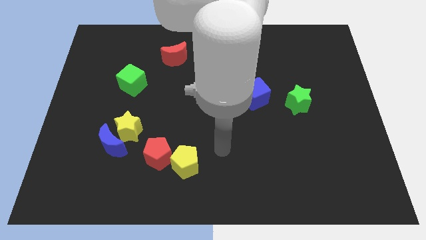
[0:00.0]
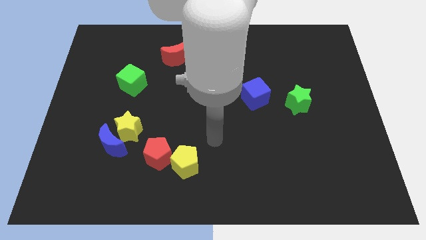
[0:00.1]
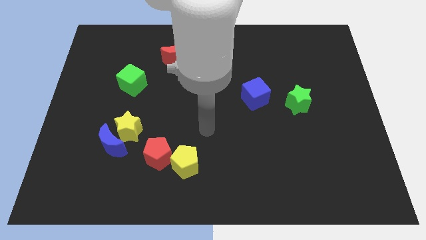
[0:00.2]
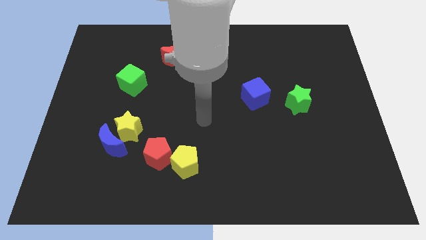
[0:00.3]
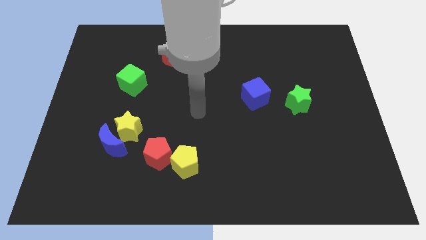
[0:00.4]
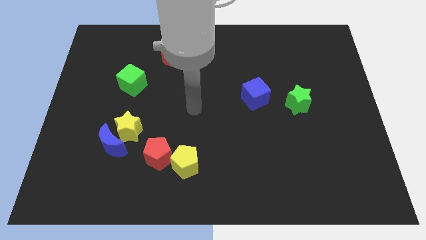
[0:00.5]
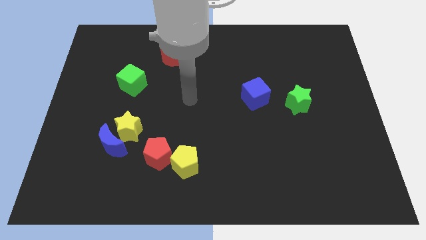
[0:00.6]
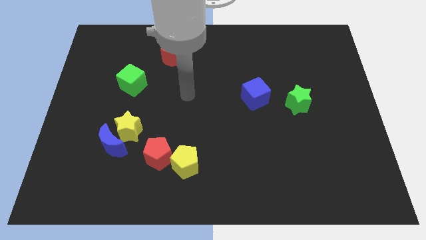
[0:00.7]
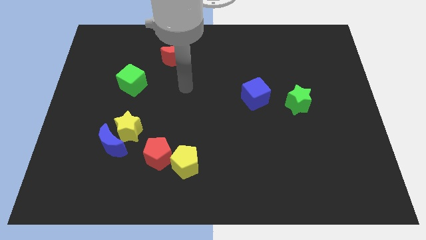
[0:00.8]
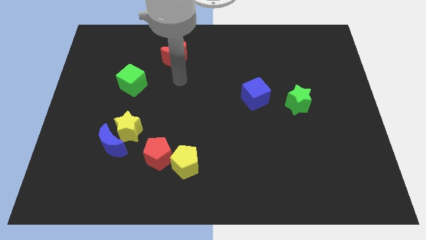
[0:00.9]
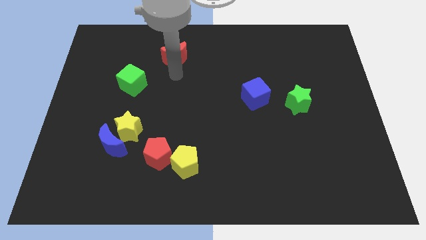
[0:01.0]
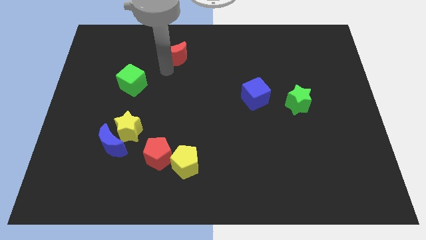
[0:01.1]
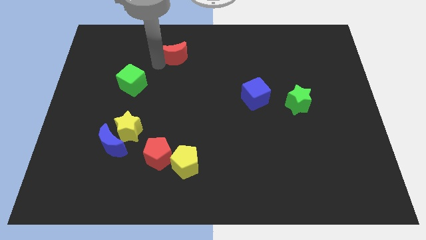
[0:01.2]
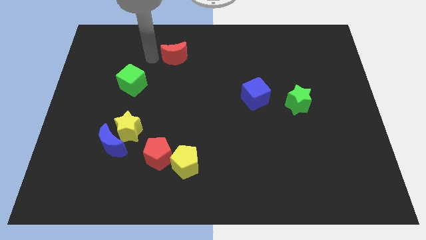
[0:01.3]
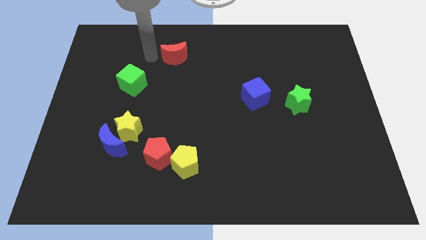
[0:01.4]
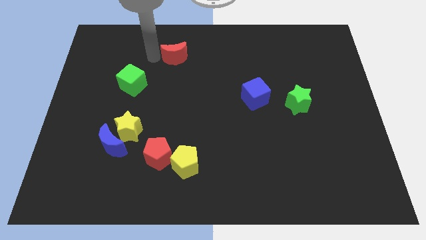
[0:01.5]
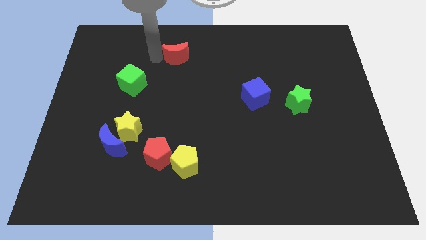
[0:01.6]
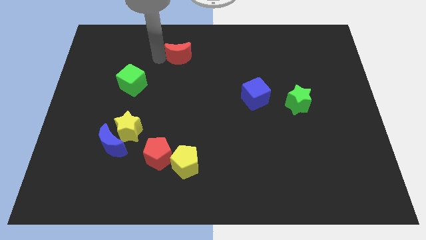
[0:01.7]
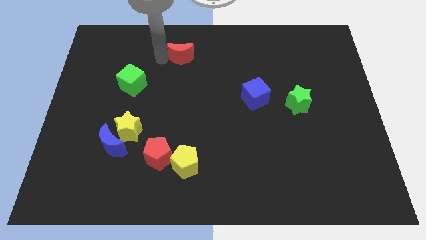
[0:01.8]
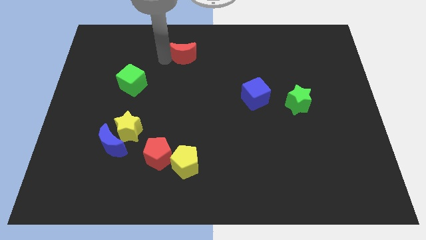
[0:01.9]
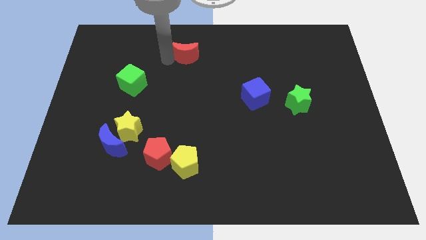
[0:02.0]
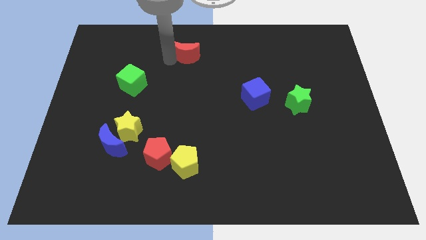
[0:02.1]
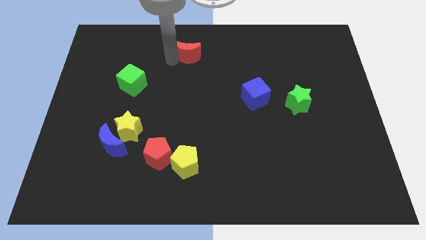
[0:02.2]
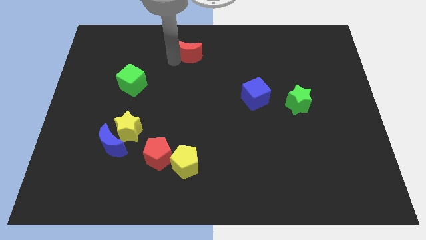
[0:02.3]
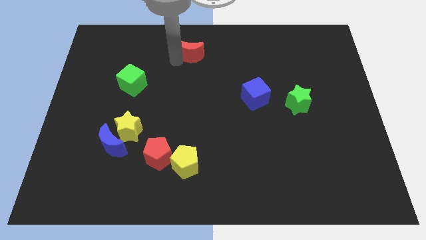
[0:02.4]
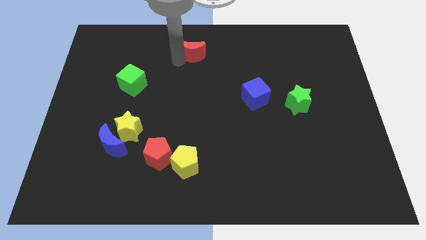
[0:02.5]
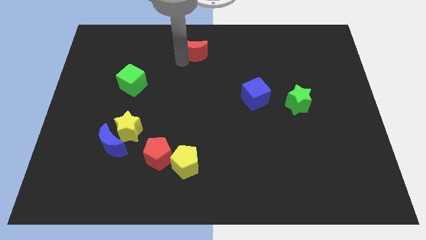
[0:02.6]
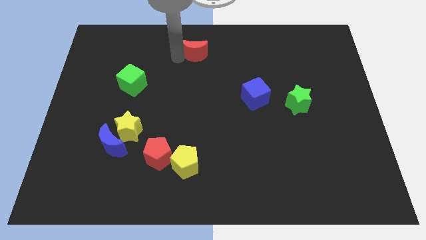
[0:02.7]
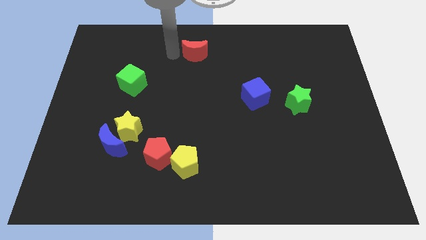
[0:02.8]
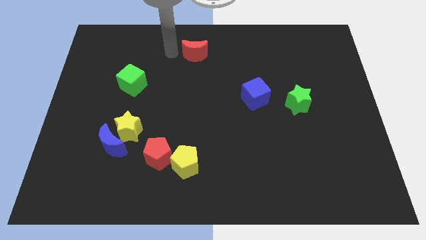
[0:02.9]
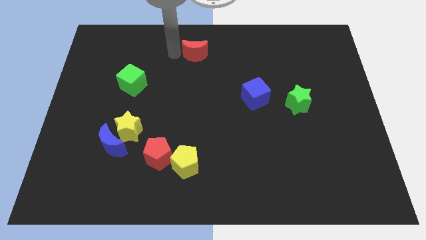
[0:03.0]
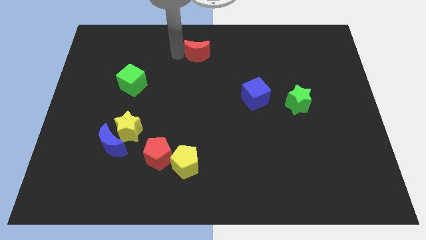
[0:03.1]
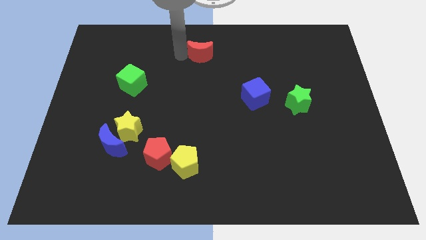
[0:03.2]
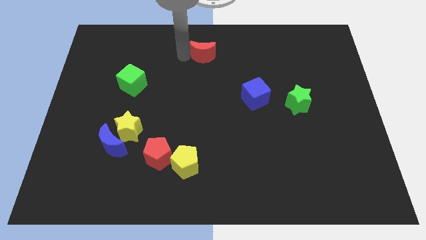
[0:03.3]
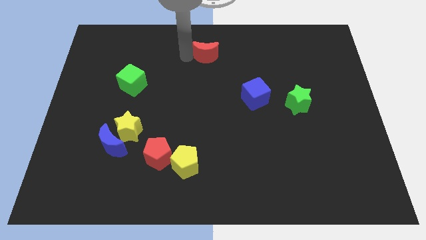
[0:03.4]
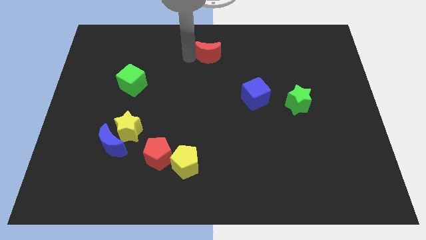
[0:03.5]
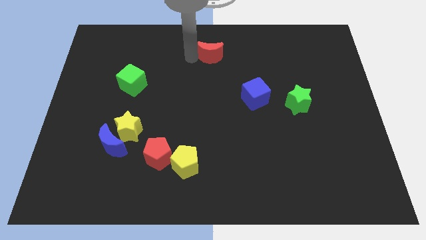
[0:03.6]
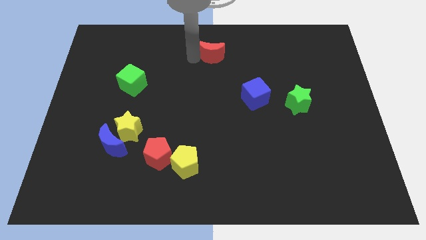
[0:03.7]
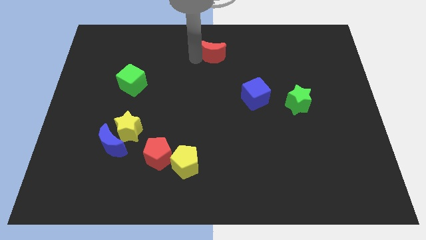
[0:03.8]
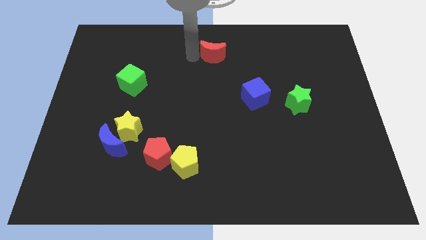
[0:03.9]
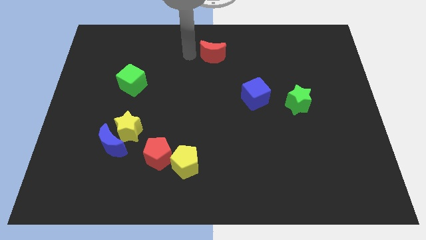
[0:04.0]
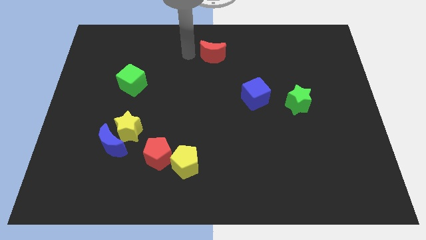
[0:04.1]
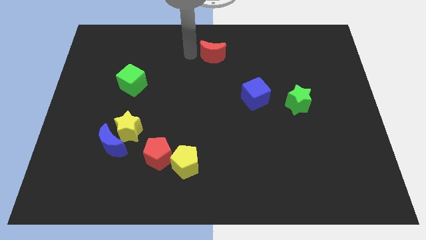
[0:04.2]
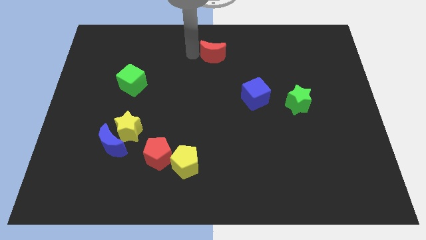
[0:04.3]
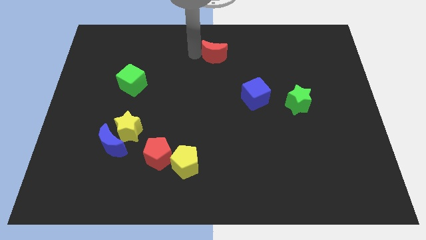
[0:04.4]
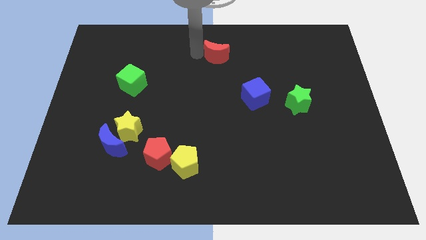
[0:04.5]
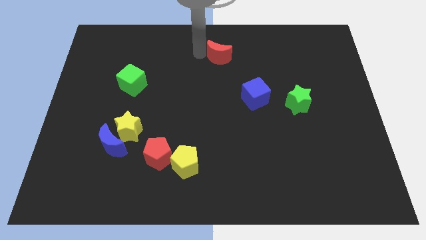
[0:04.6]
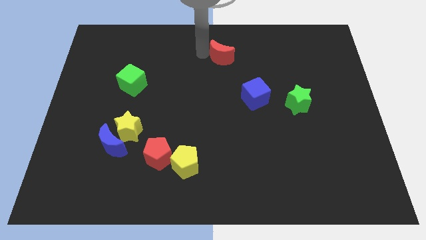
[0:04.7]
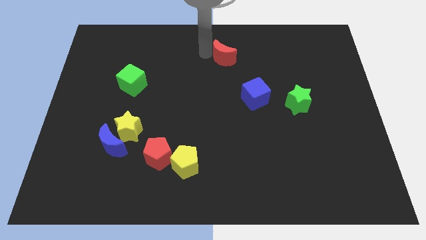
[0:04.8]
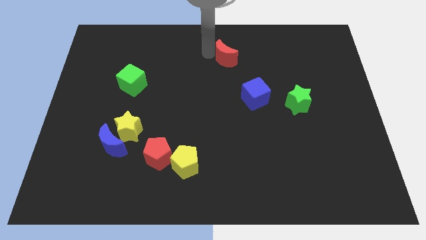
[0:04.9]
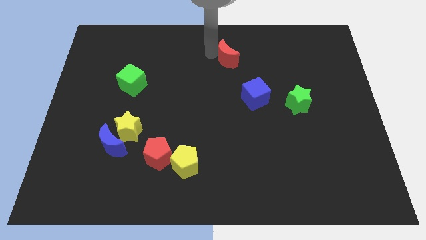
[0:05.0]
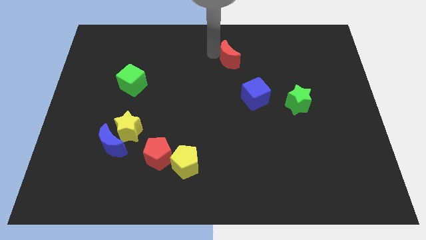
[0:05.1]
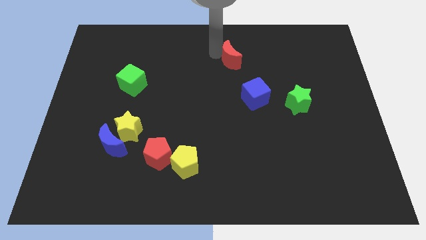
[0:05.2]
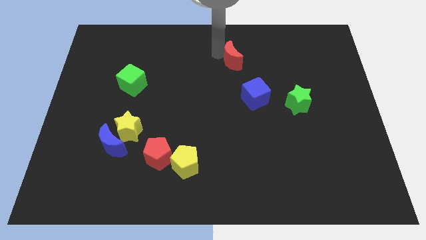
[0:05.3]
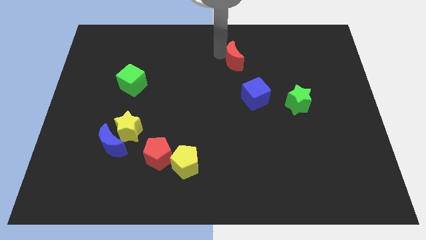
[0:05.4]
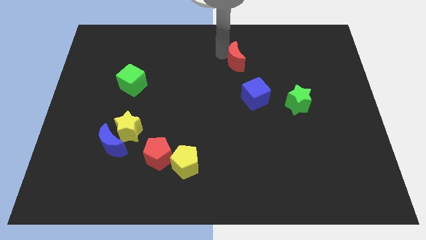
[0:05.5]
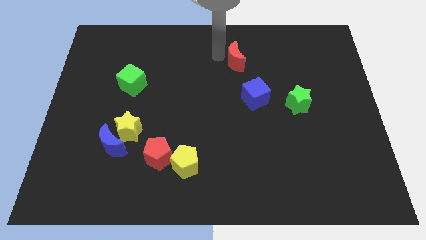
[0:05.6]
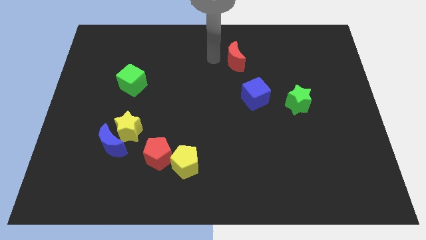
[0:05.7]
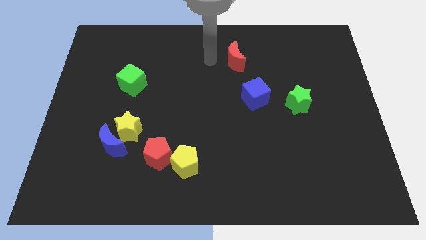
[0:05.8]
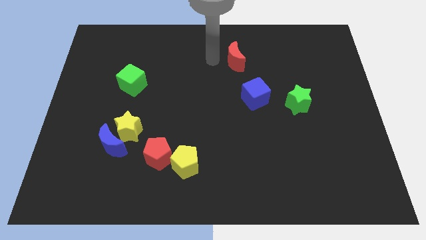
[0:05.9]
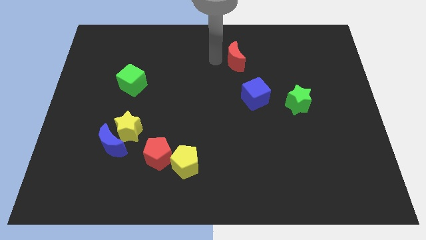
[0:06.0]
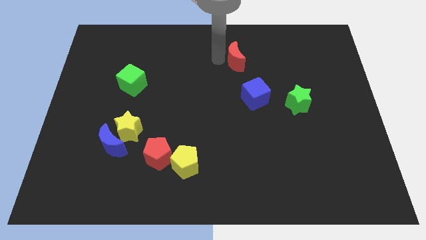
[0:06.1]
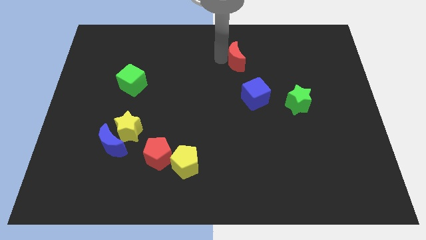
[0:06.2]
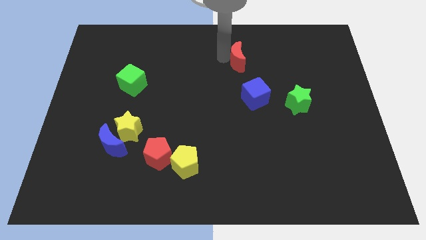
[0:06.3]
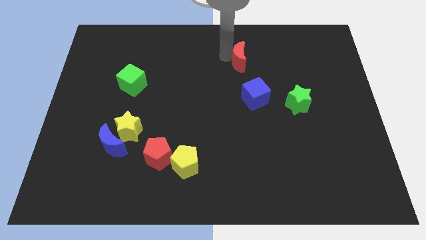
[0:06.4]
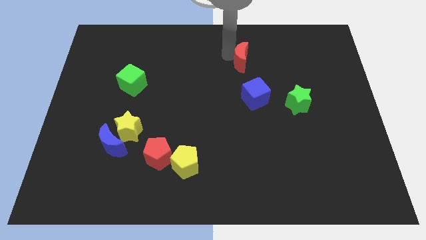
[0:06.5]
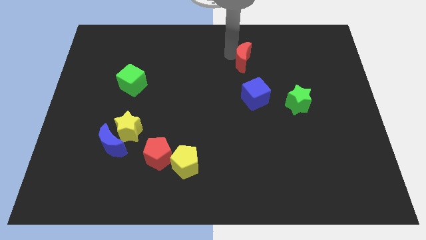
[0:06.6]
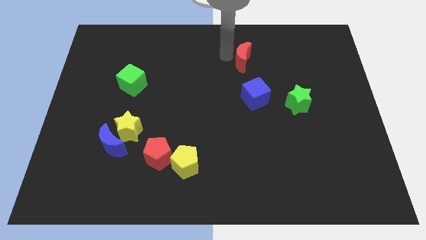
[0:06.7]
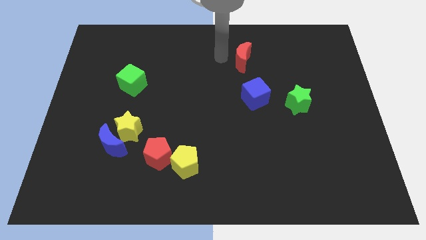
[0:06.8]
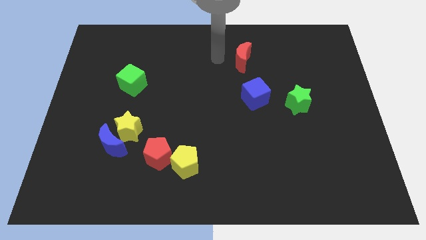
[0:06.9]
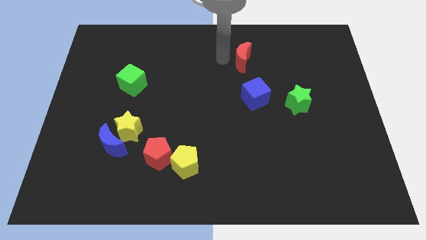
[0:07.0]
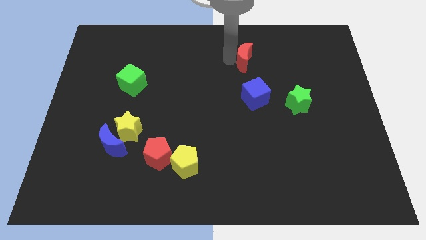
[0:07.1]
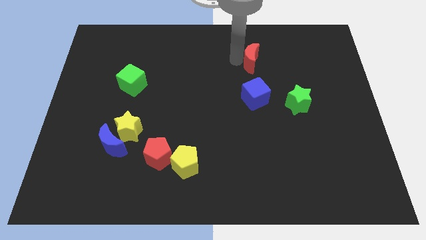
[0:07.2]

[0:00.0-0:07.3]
move the red moon to the right

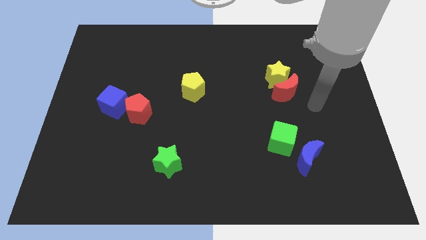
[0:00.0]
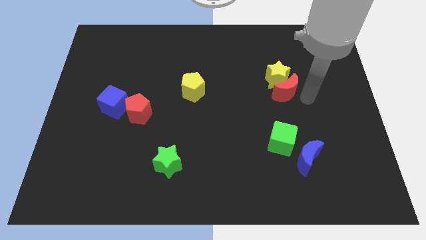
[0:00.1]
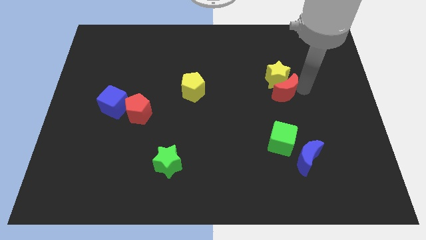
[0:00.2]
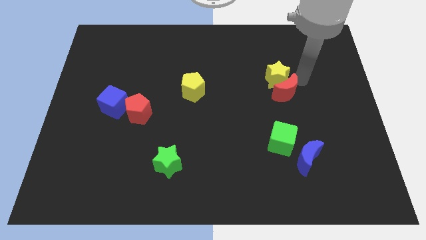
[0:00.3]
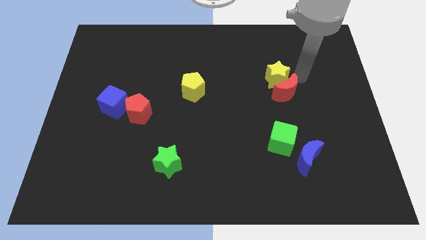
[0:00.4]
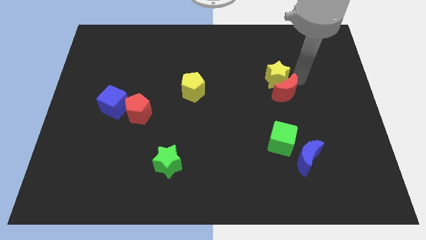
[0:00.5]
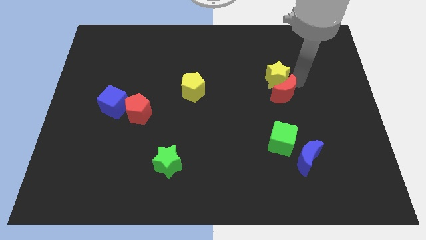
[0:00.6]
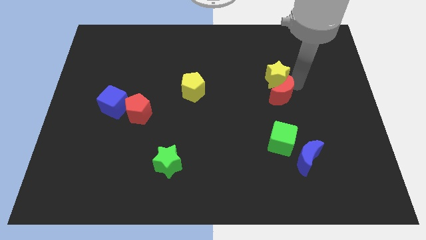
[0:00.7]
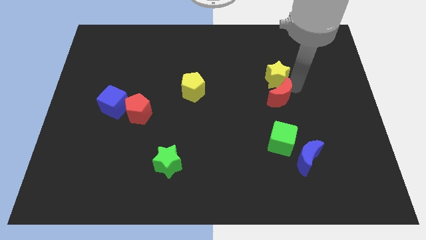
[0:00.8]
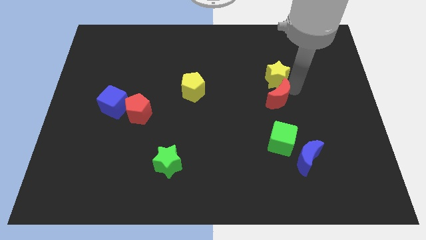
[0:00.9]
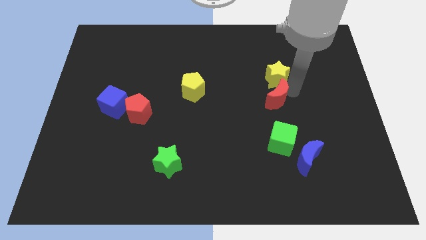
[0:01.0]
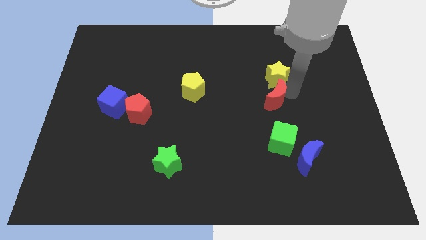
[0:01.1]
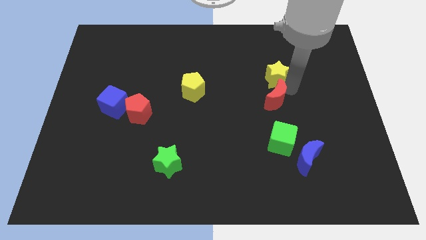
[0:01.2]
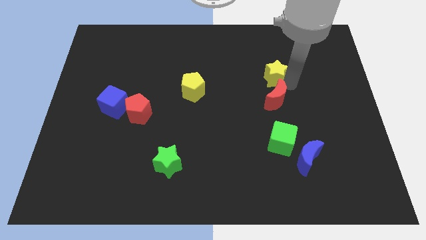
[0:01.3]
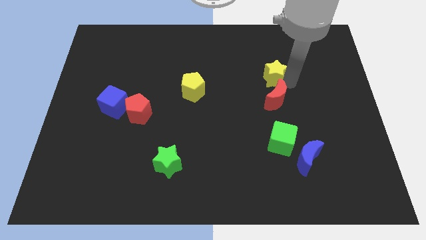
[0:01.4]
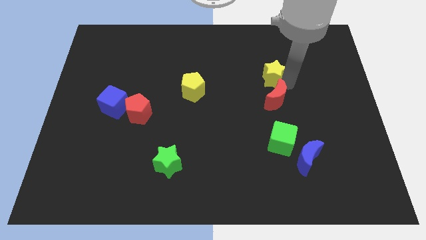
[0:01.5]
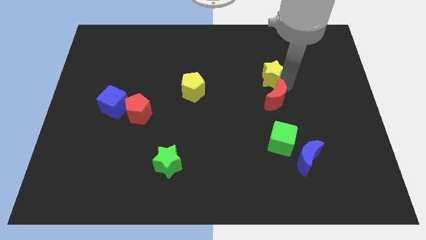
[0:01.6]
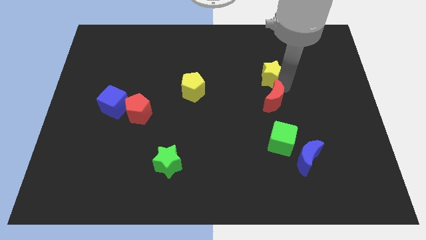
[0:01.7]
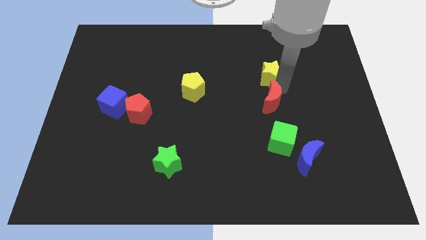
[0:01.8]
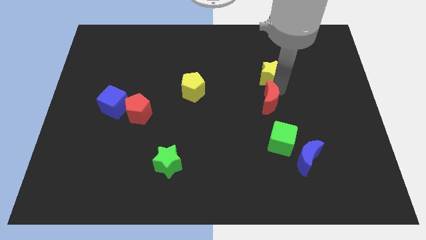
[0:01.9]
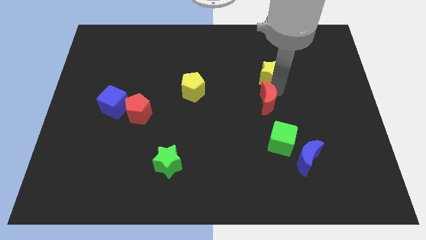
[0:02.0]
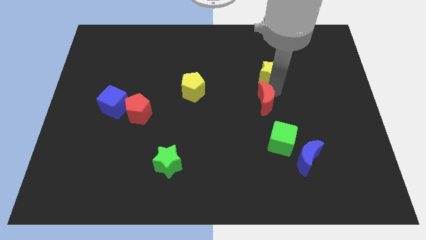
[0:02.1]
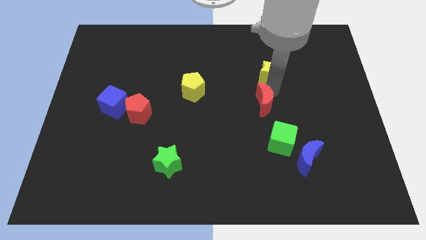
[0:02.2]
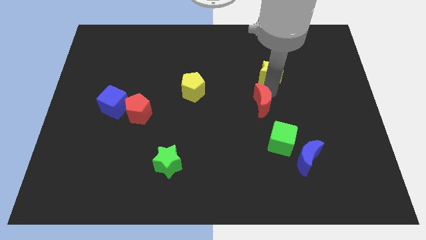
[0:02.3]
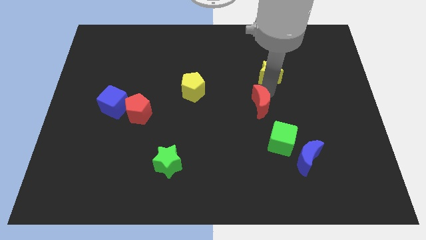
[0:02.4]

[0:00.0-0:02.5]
push the red moon somewhat downwards and left diagonally
